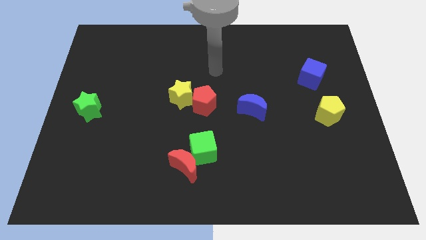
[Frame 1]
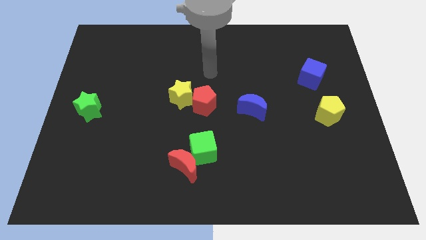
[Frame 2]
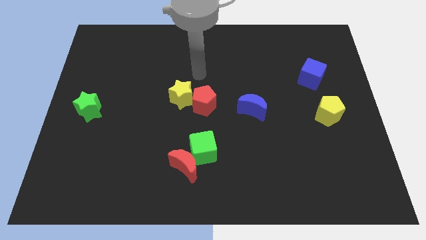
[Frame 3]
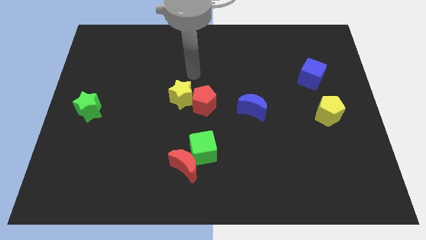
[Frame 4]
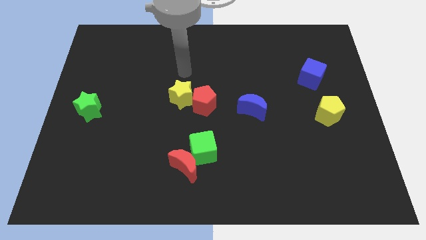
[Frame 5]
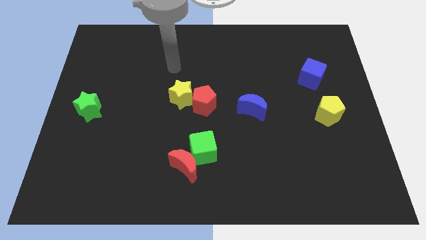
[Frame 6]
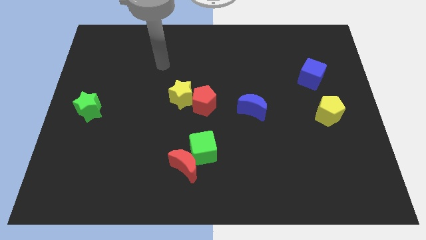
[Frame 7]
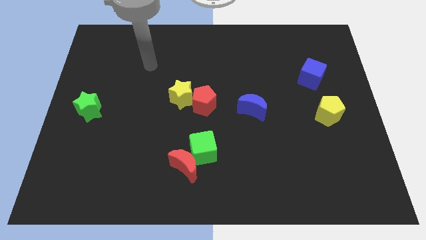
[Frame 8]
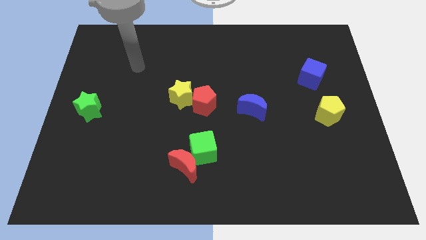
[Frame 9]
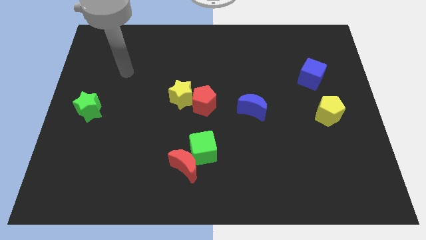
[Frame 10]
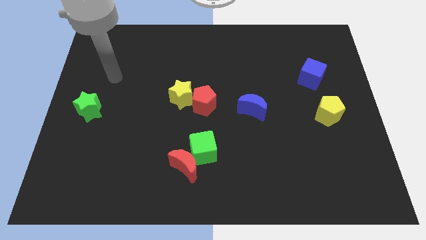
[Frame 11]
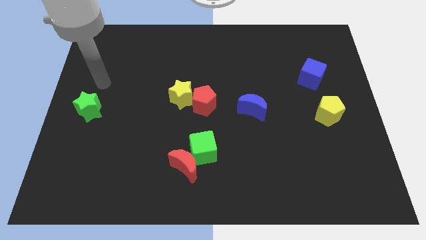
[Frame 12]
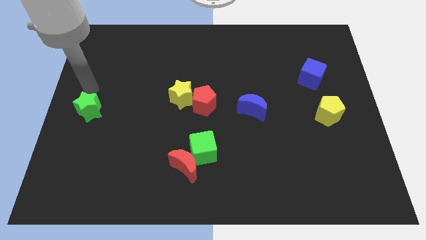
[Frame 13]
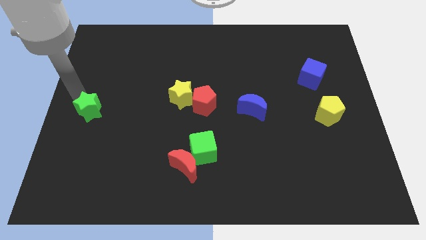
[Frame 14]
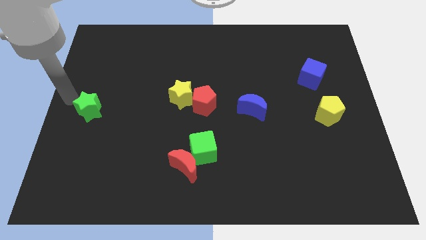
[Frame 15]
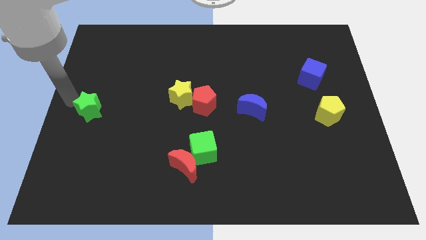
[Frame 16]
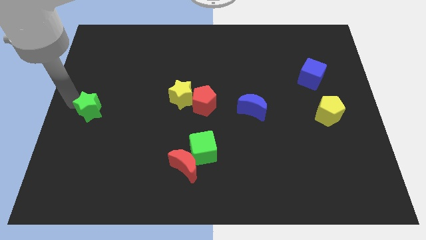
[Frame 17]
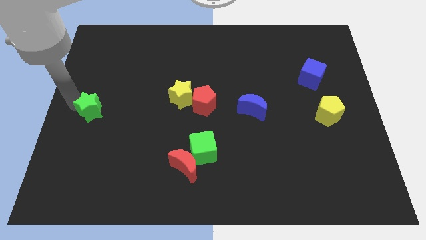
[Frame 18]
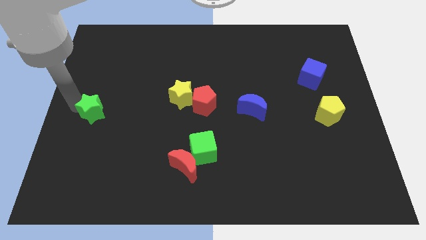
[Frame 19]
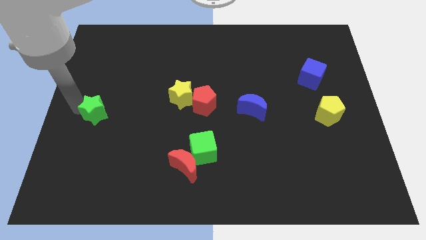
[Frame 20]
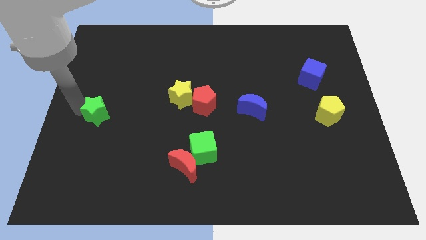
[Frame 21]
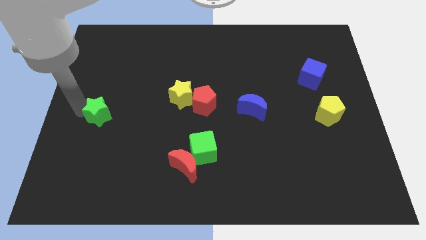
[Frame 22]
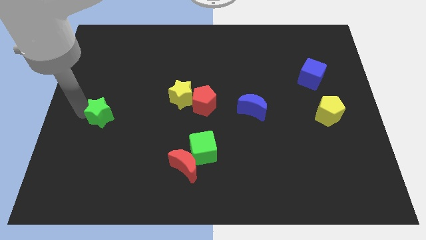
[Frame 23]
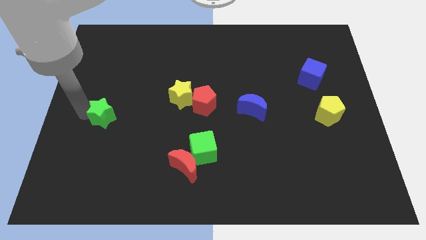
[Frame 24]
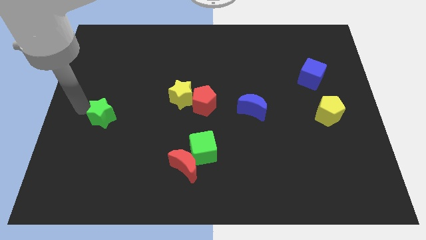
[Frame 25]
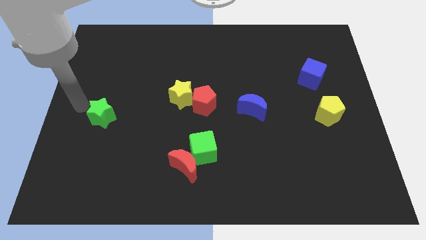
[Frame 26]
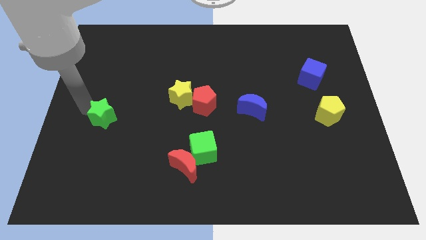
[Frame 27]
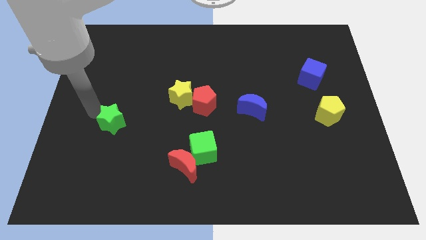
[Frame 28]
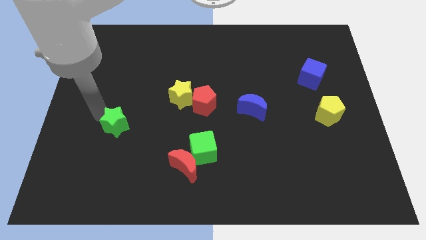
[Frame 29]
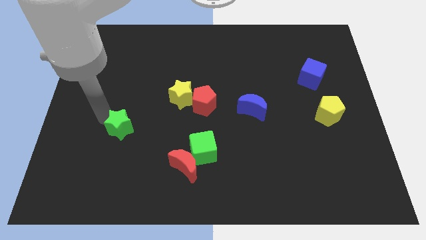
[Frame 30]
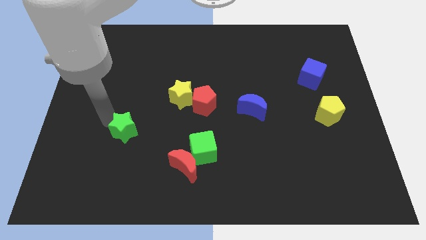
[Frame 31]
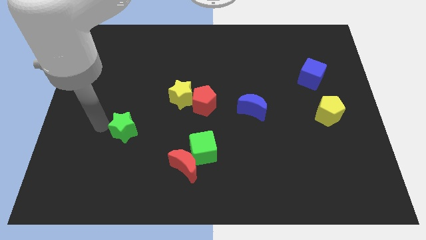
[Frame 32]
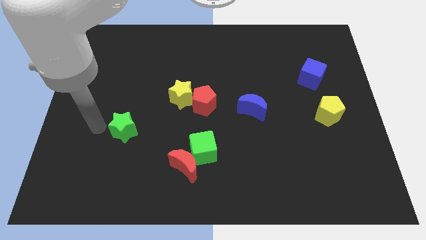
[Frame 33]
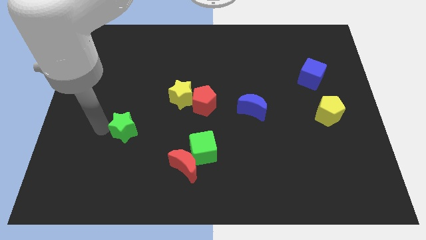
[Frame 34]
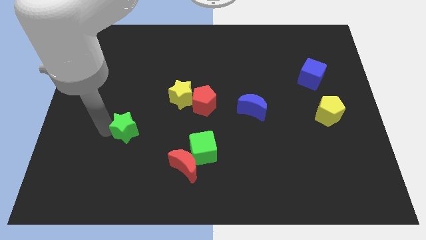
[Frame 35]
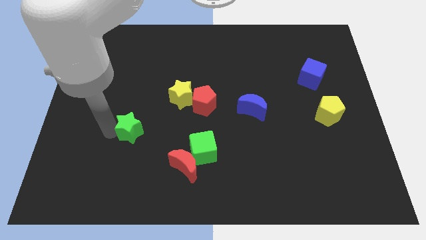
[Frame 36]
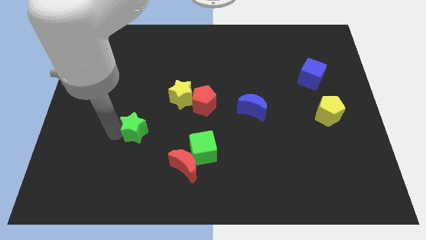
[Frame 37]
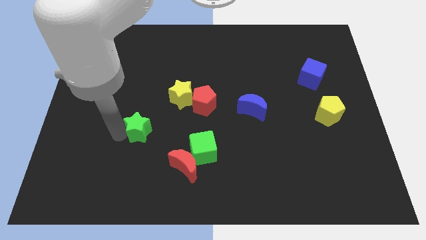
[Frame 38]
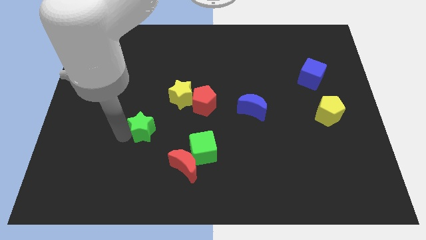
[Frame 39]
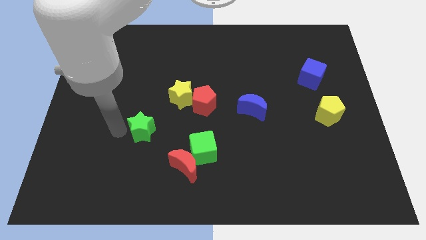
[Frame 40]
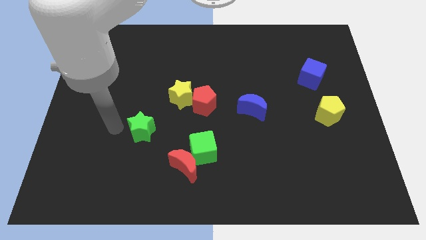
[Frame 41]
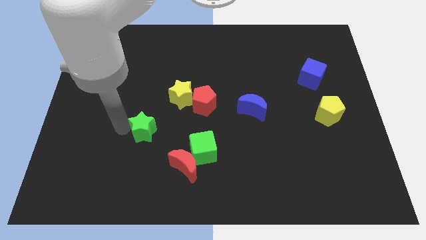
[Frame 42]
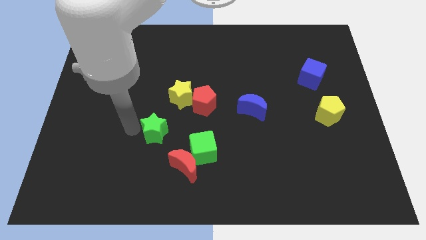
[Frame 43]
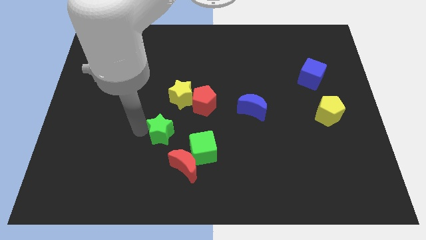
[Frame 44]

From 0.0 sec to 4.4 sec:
move the green star to the bottom side of the yellow star

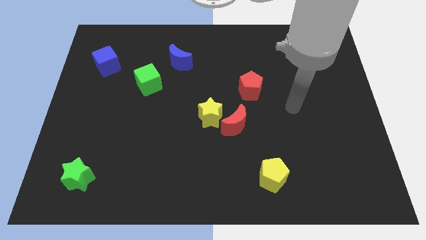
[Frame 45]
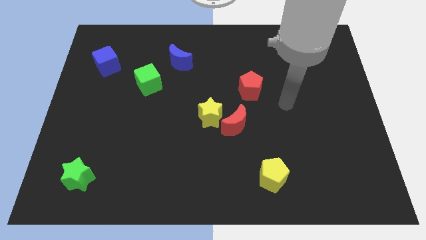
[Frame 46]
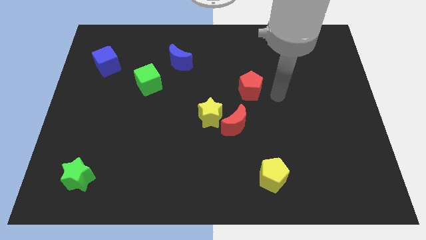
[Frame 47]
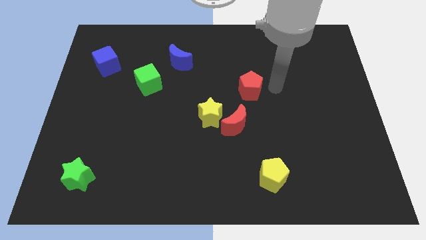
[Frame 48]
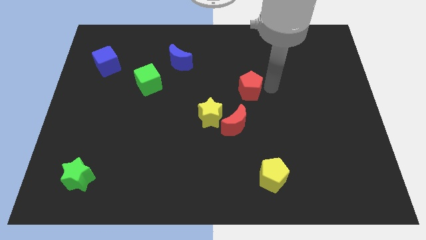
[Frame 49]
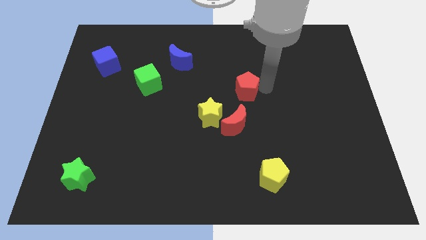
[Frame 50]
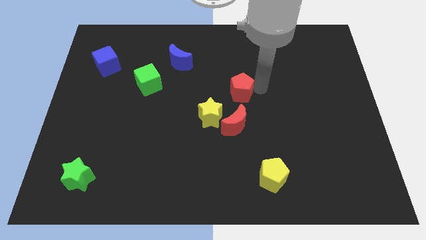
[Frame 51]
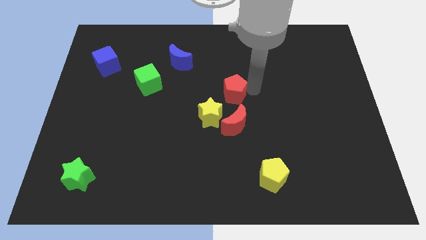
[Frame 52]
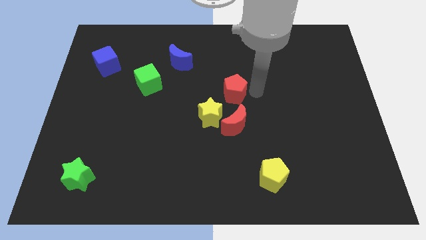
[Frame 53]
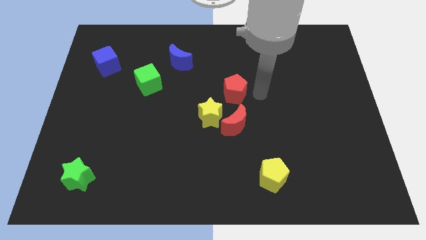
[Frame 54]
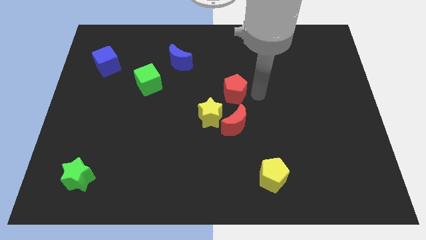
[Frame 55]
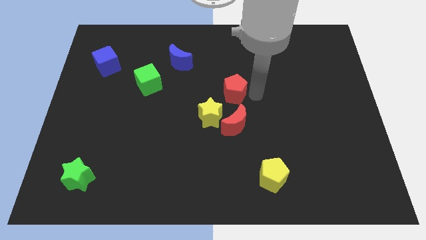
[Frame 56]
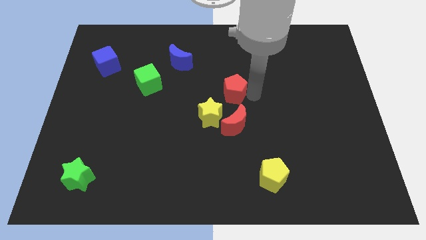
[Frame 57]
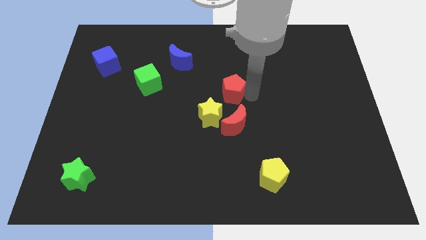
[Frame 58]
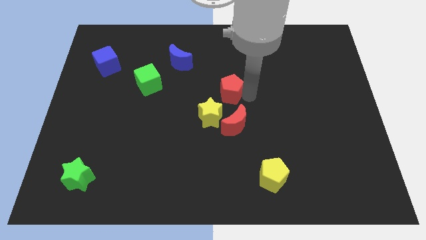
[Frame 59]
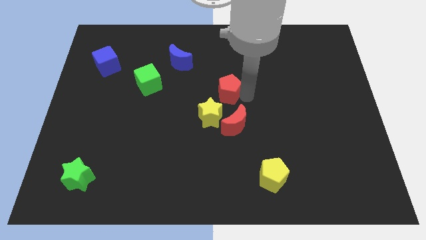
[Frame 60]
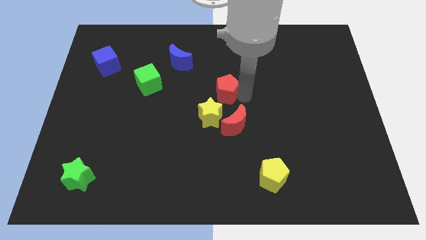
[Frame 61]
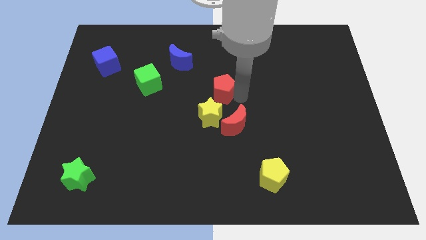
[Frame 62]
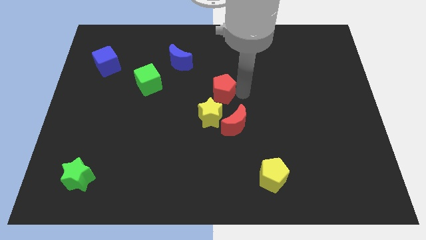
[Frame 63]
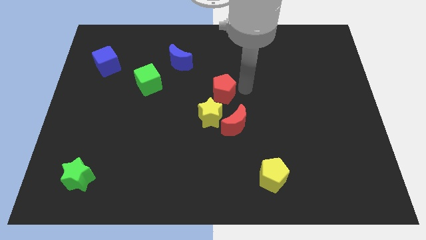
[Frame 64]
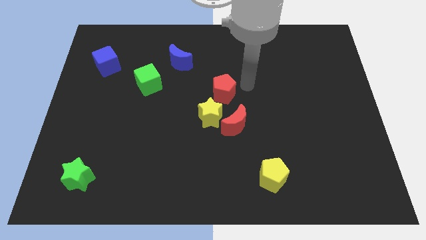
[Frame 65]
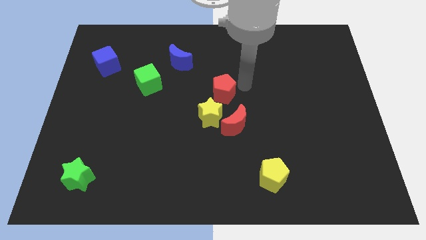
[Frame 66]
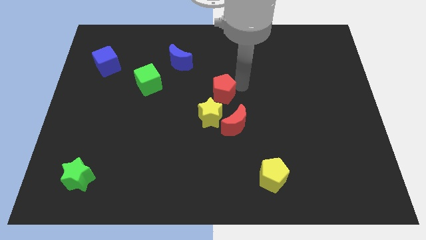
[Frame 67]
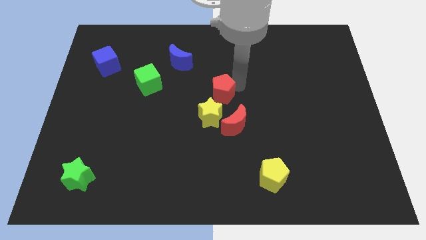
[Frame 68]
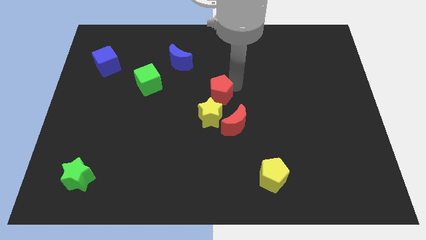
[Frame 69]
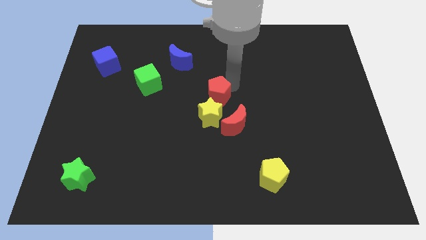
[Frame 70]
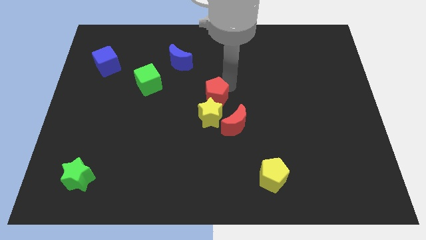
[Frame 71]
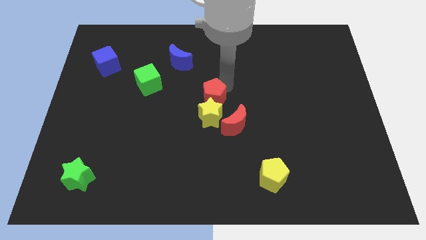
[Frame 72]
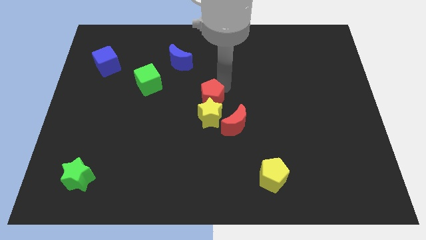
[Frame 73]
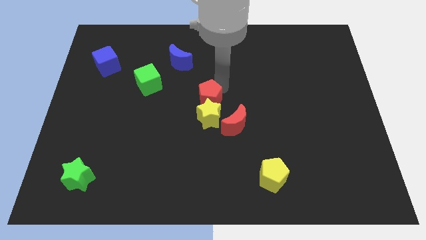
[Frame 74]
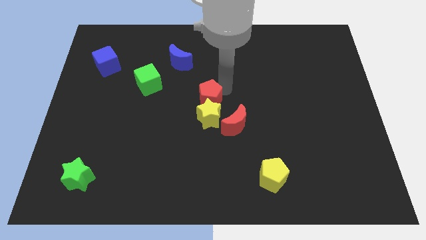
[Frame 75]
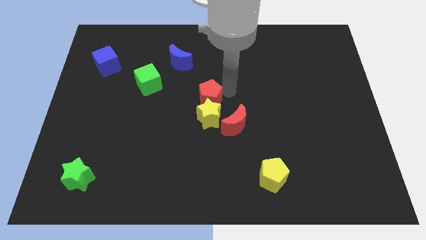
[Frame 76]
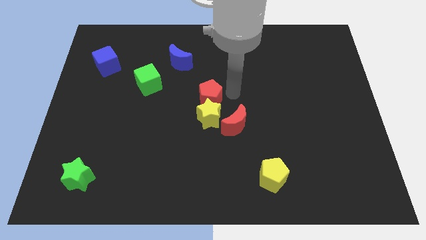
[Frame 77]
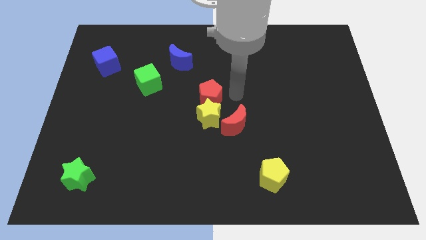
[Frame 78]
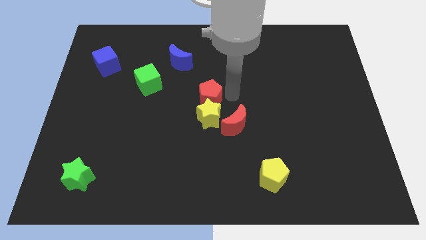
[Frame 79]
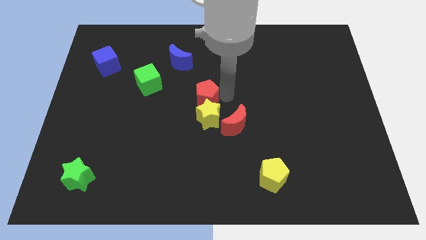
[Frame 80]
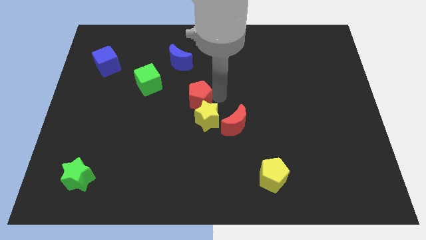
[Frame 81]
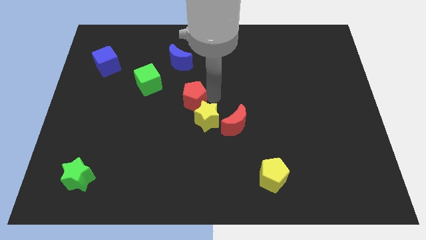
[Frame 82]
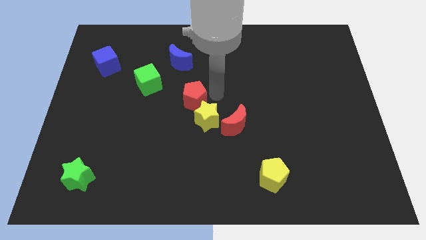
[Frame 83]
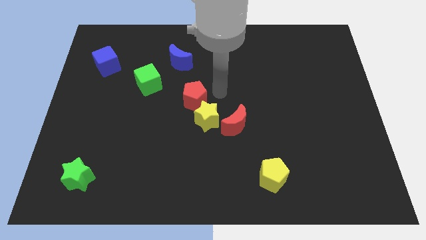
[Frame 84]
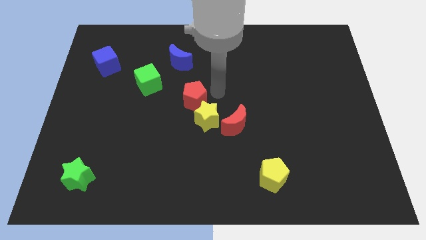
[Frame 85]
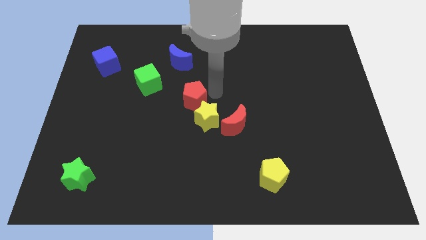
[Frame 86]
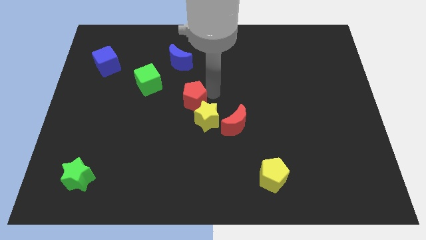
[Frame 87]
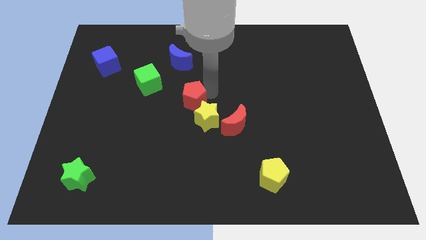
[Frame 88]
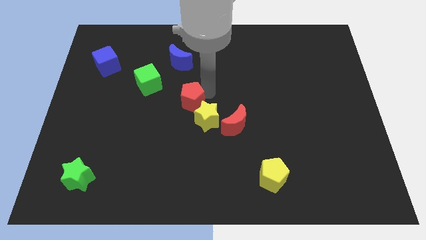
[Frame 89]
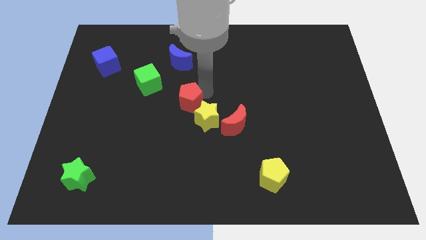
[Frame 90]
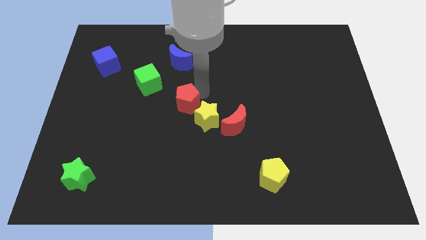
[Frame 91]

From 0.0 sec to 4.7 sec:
move the red pentagon left of the yellow star
